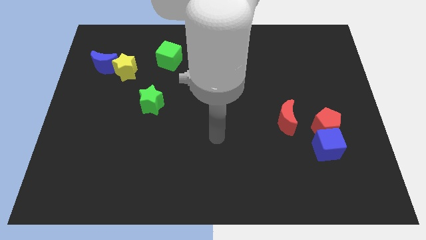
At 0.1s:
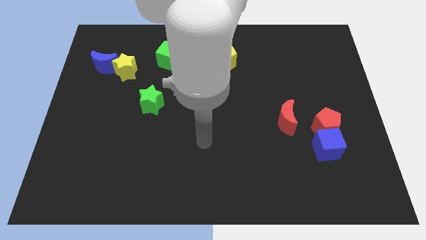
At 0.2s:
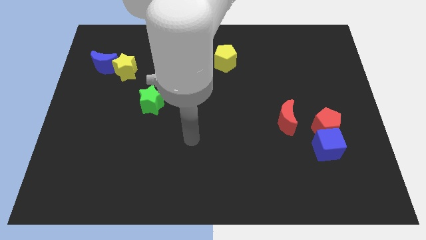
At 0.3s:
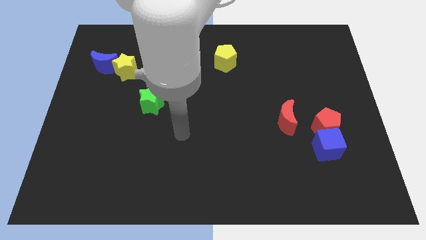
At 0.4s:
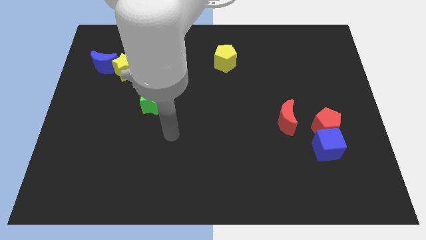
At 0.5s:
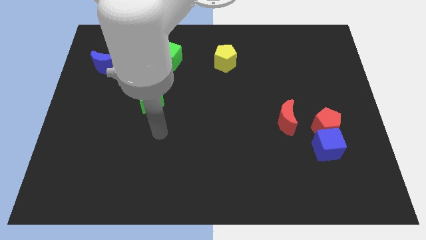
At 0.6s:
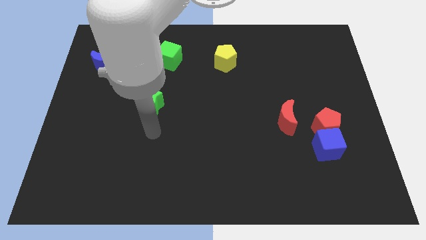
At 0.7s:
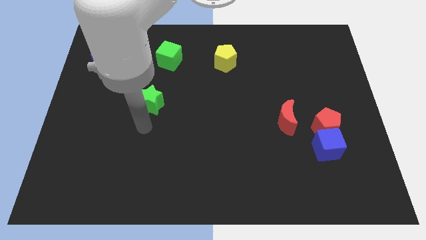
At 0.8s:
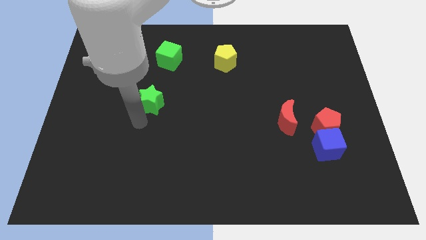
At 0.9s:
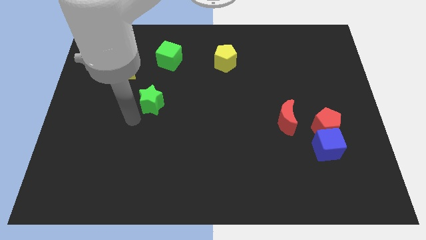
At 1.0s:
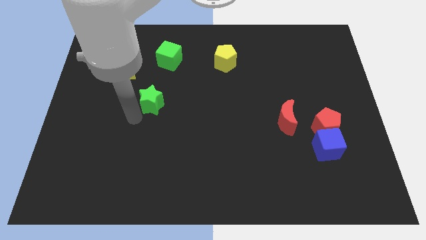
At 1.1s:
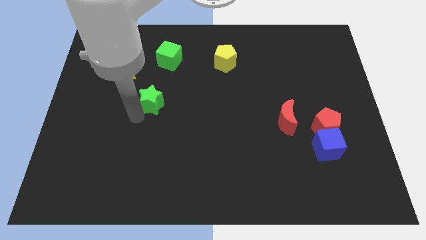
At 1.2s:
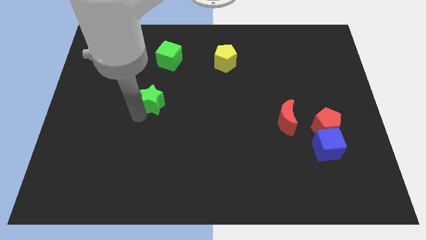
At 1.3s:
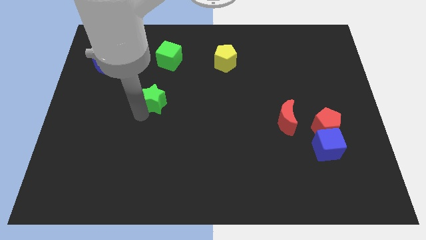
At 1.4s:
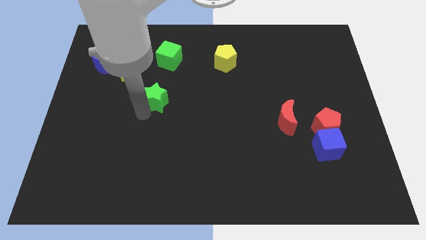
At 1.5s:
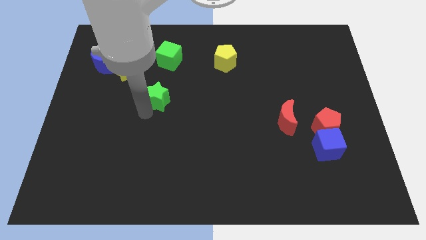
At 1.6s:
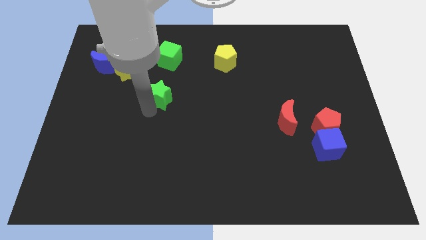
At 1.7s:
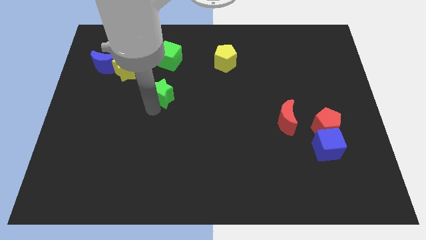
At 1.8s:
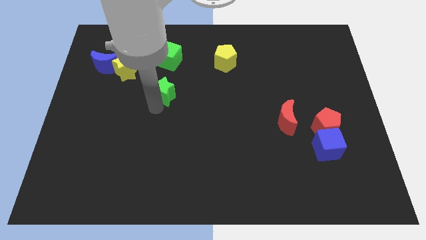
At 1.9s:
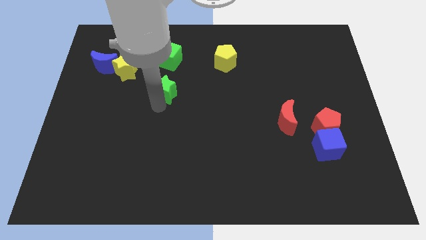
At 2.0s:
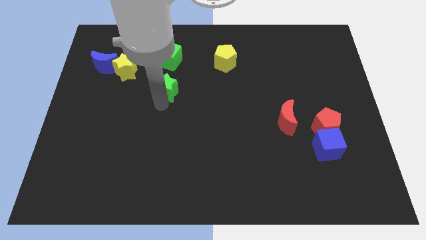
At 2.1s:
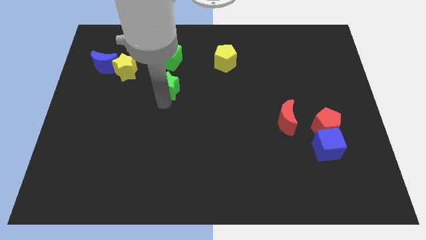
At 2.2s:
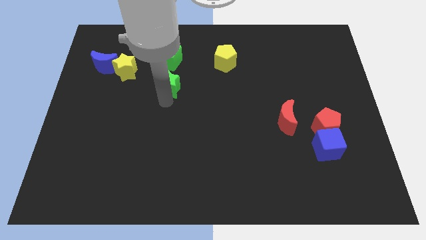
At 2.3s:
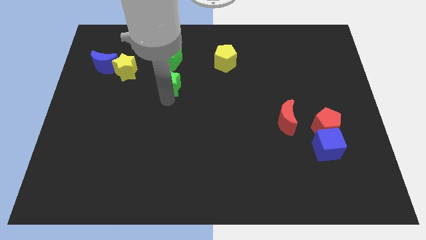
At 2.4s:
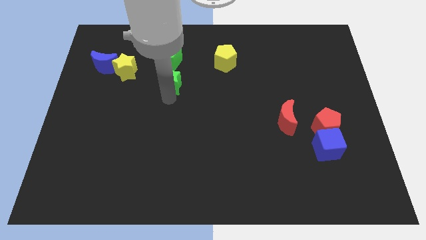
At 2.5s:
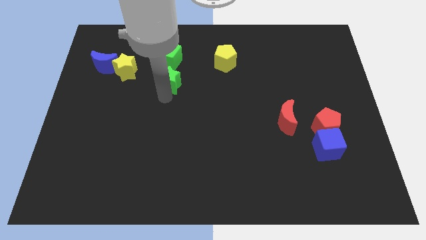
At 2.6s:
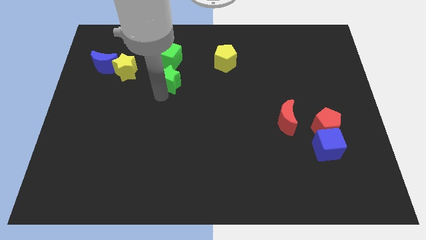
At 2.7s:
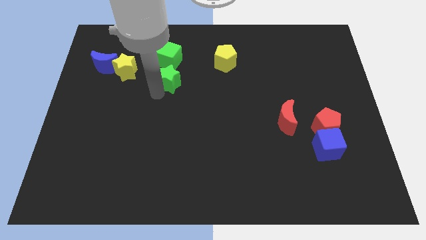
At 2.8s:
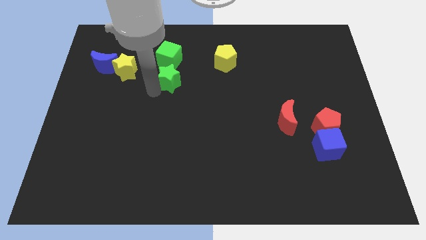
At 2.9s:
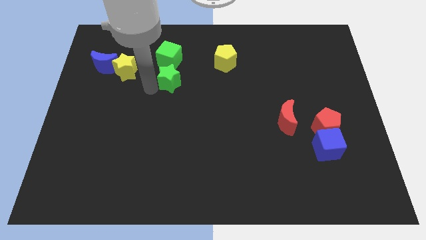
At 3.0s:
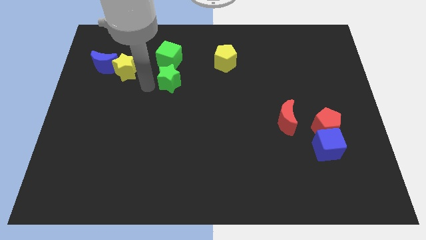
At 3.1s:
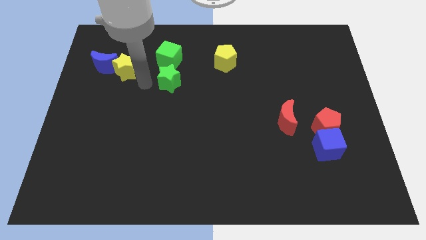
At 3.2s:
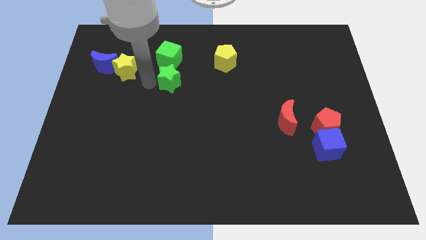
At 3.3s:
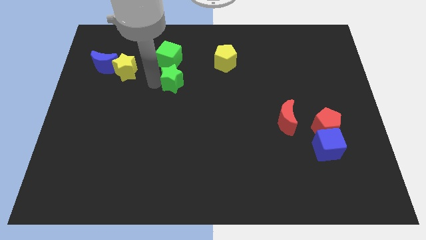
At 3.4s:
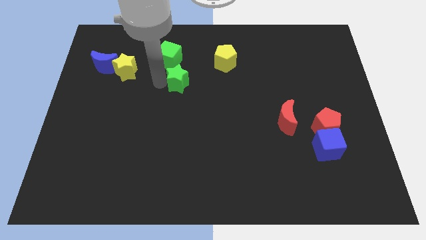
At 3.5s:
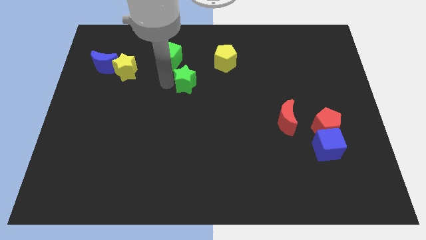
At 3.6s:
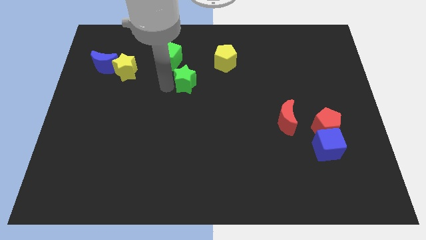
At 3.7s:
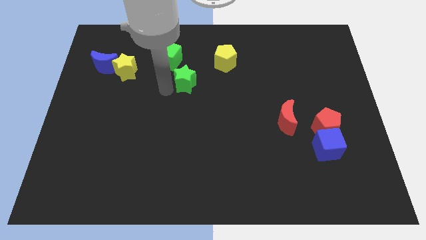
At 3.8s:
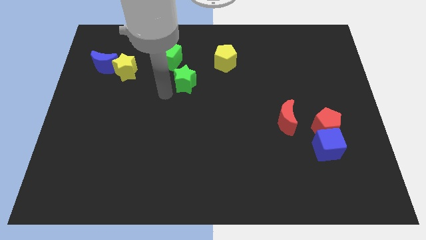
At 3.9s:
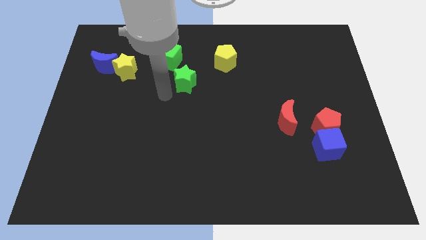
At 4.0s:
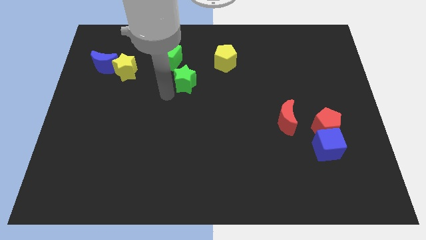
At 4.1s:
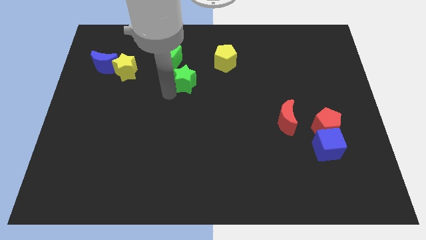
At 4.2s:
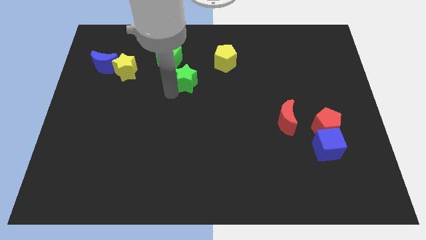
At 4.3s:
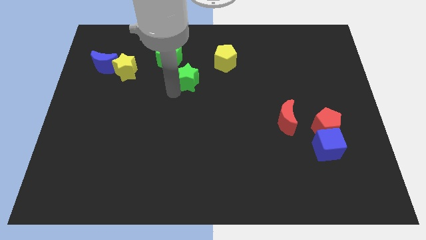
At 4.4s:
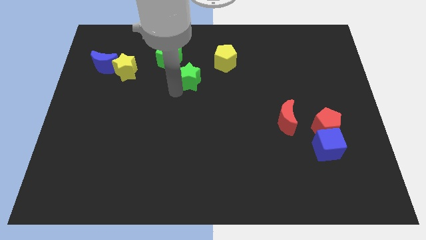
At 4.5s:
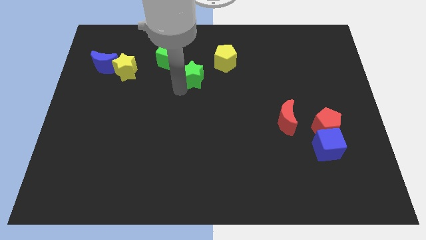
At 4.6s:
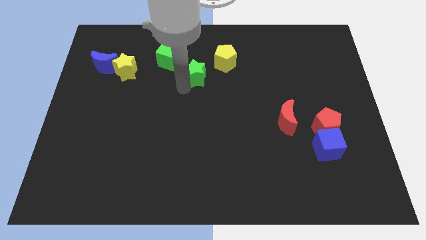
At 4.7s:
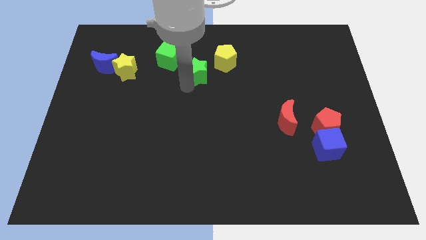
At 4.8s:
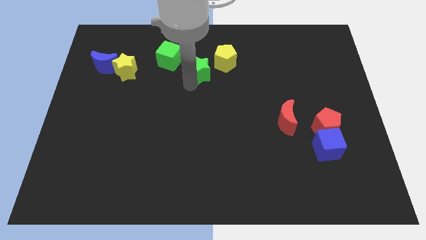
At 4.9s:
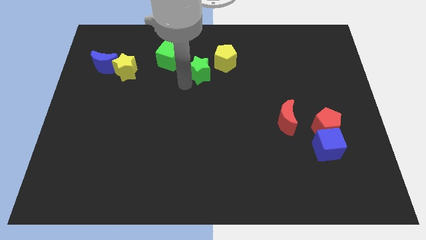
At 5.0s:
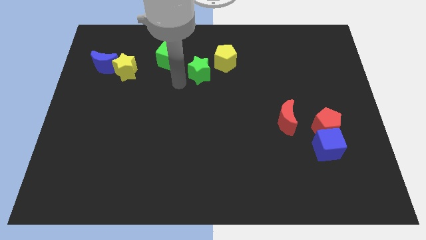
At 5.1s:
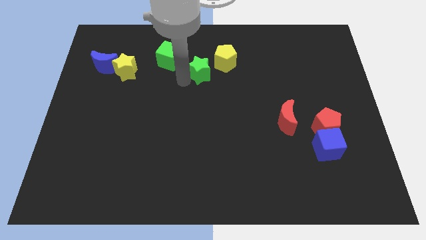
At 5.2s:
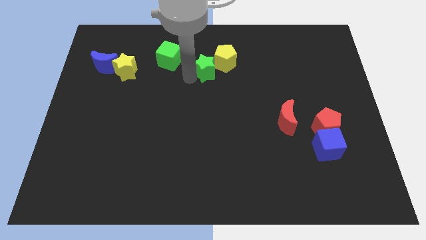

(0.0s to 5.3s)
put the green star next to the yellow pentagon

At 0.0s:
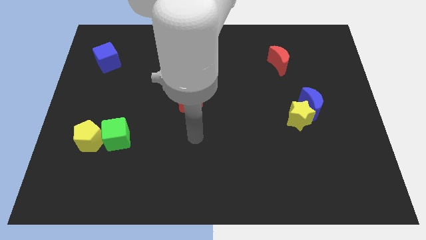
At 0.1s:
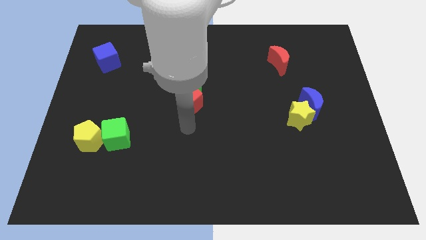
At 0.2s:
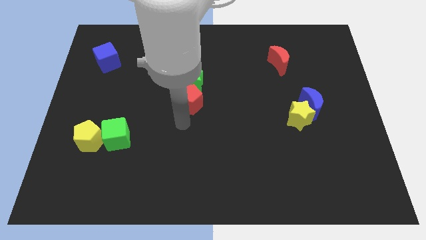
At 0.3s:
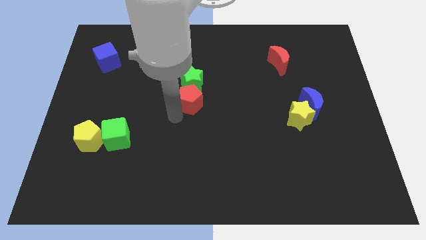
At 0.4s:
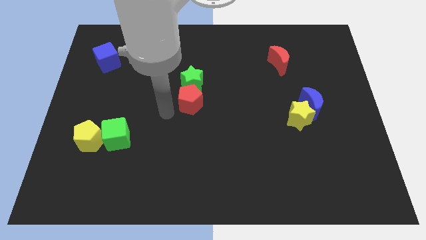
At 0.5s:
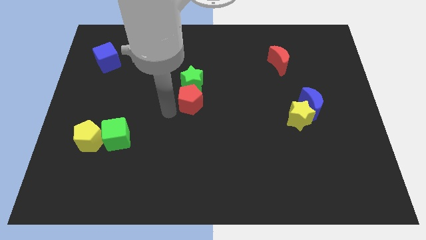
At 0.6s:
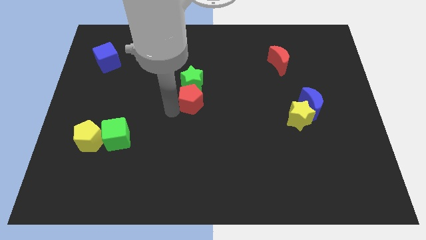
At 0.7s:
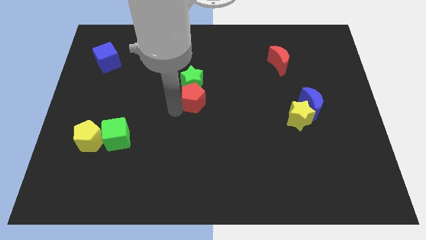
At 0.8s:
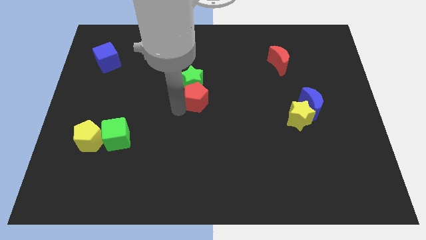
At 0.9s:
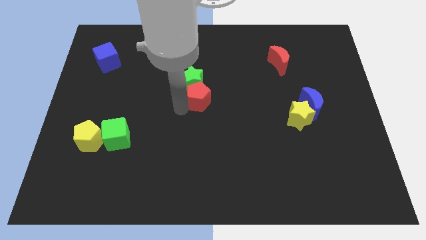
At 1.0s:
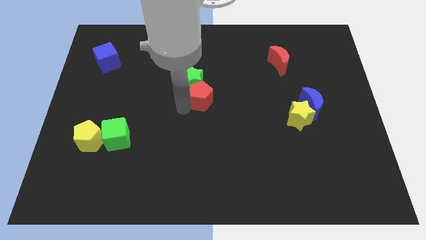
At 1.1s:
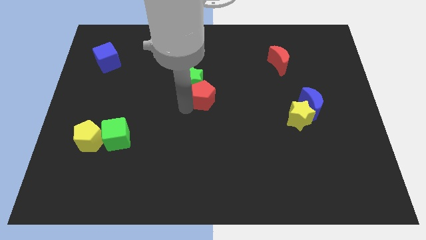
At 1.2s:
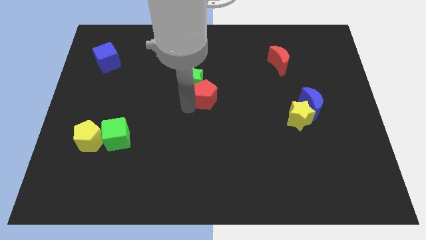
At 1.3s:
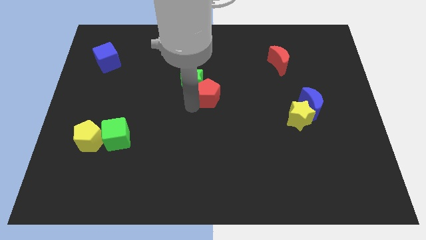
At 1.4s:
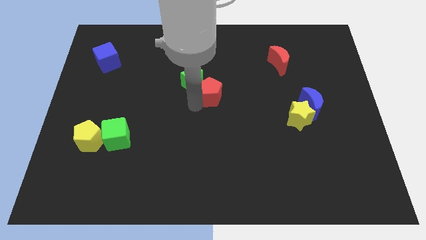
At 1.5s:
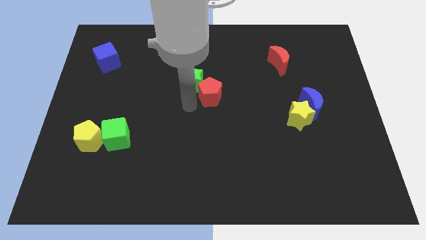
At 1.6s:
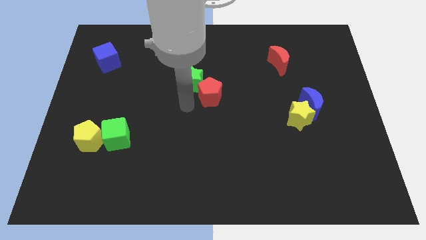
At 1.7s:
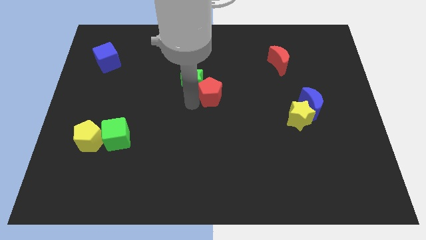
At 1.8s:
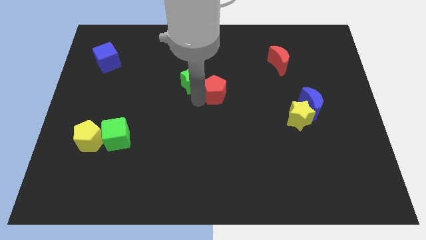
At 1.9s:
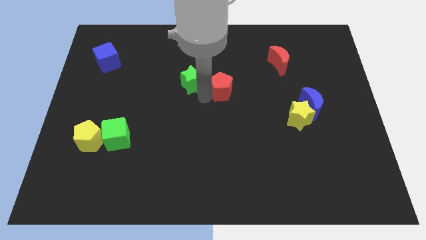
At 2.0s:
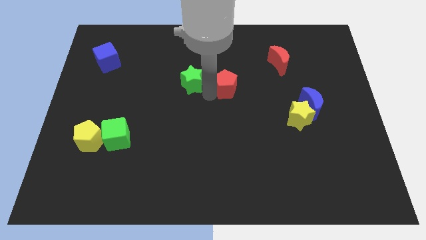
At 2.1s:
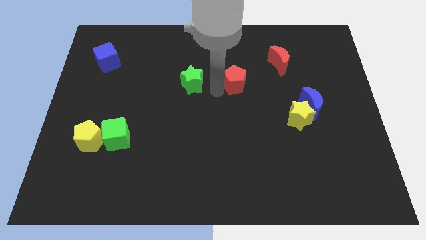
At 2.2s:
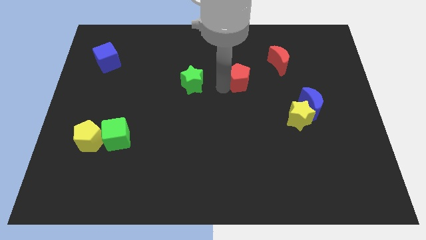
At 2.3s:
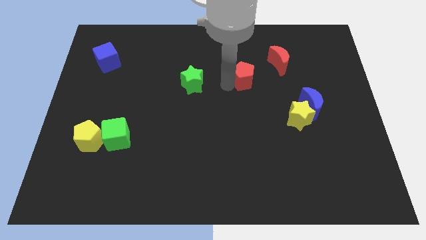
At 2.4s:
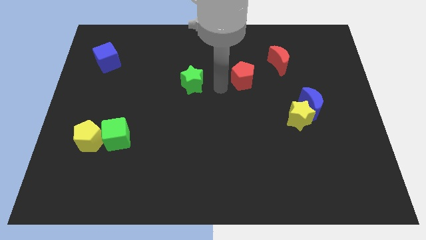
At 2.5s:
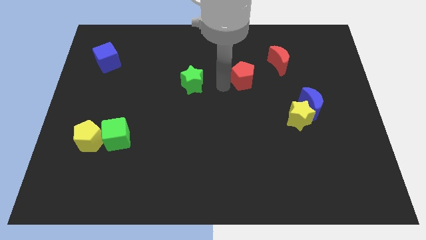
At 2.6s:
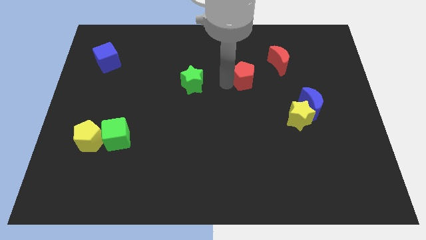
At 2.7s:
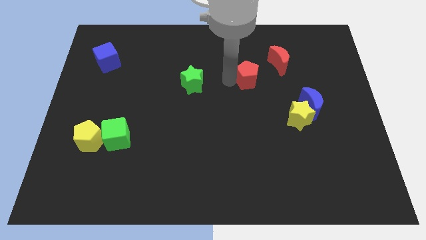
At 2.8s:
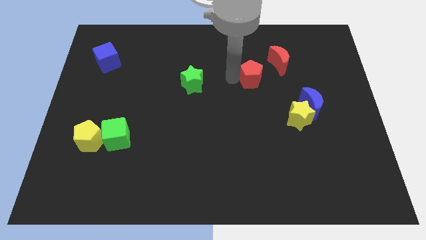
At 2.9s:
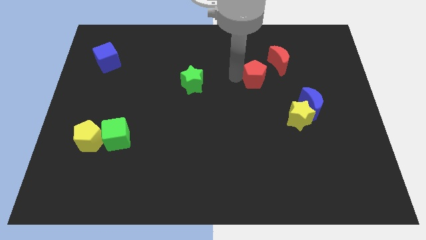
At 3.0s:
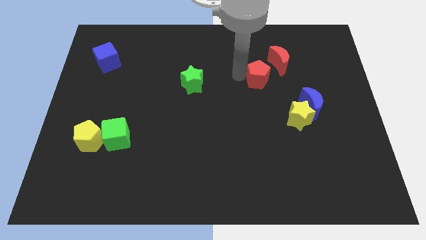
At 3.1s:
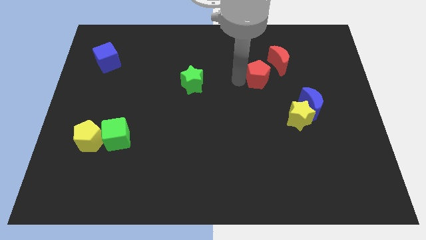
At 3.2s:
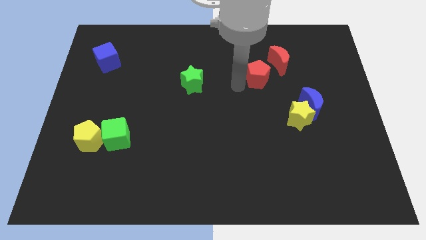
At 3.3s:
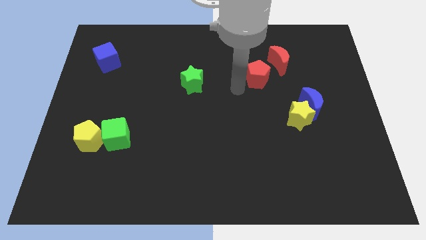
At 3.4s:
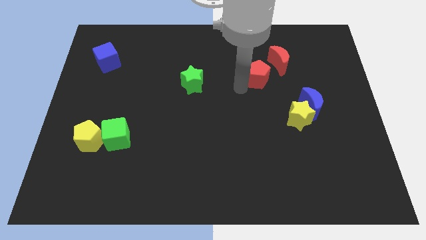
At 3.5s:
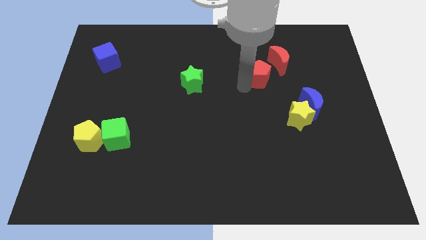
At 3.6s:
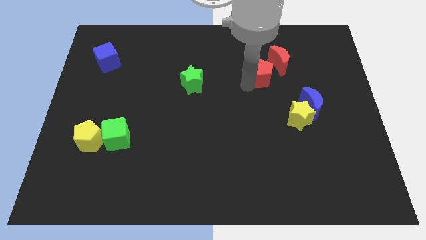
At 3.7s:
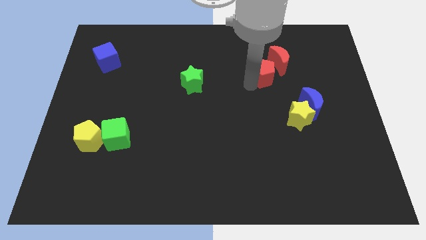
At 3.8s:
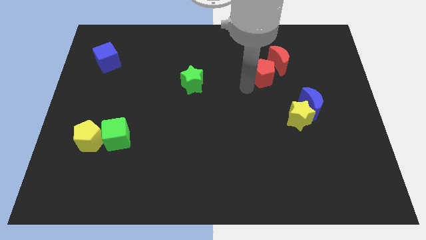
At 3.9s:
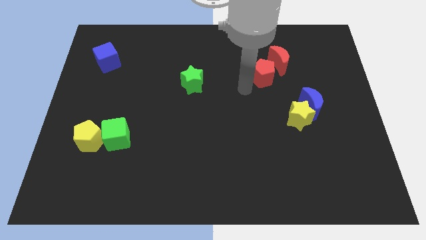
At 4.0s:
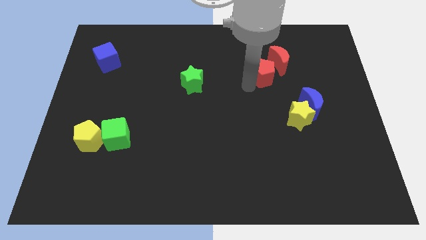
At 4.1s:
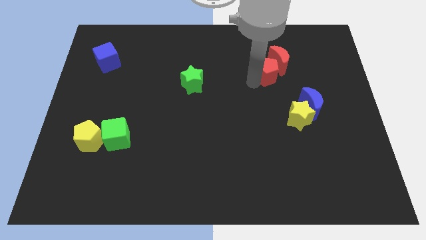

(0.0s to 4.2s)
put the red pentagon towards the red moon
